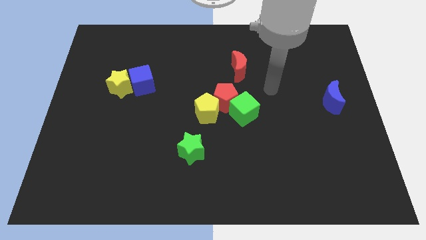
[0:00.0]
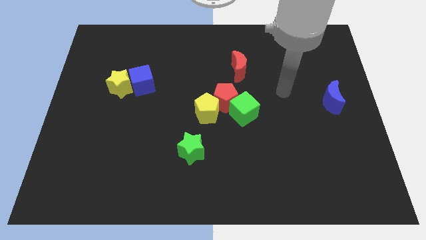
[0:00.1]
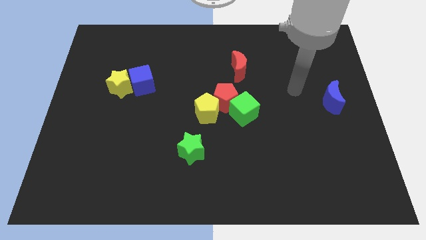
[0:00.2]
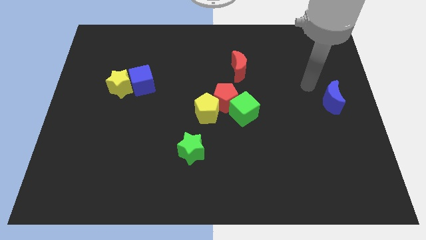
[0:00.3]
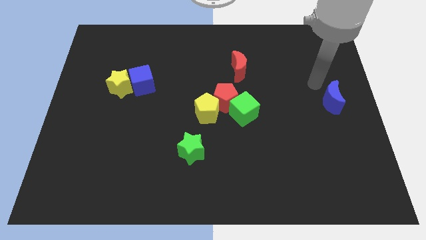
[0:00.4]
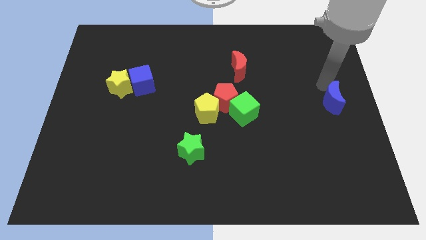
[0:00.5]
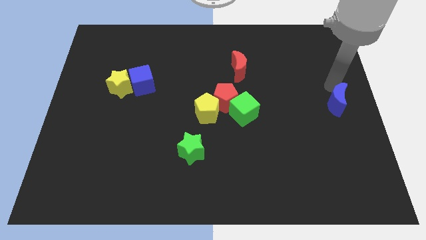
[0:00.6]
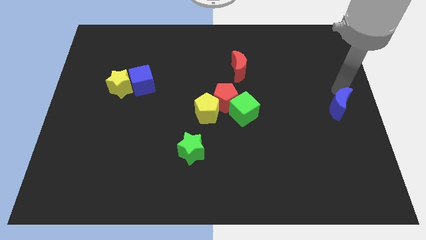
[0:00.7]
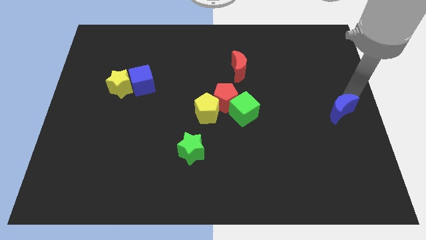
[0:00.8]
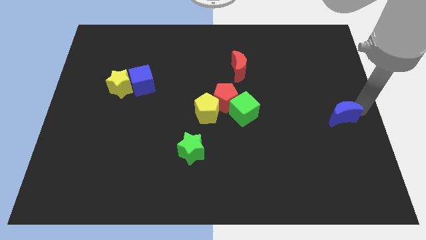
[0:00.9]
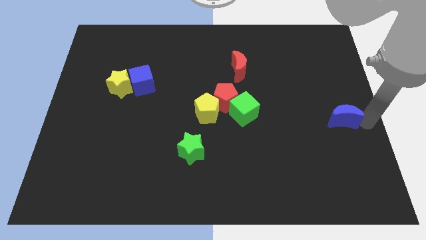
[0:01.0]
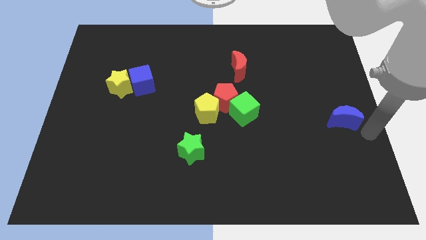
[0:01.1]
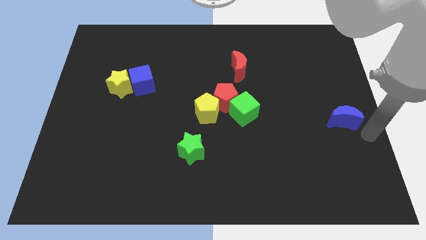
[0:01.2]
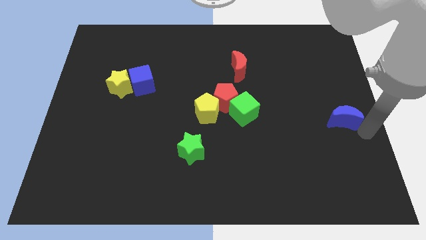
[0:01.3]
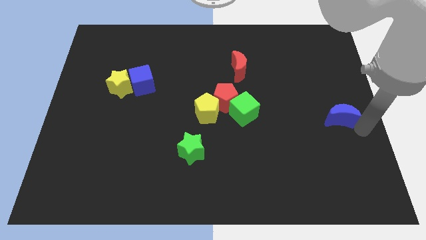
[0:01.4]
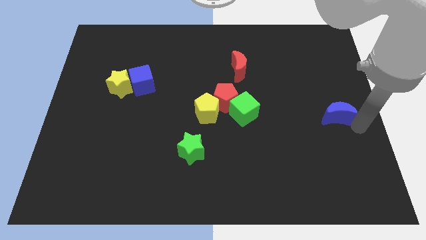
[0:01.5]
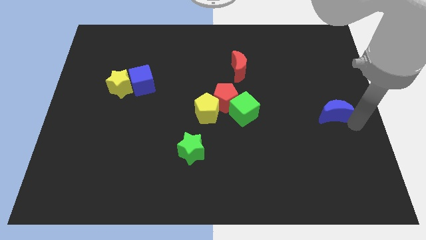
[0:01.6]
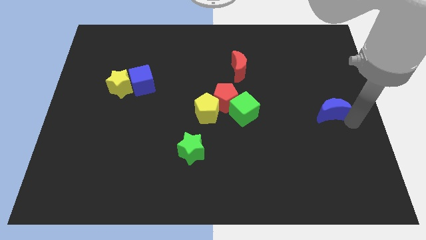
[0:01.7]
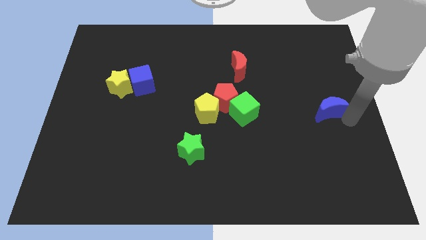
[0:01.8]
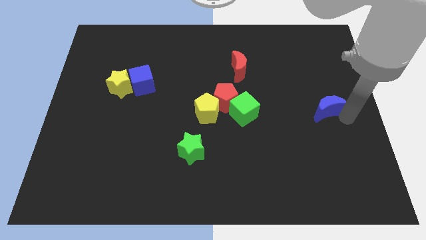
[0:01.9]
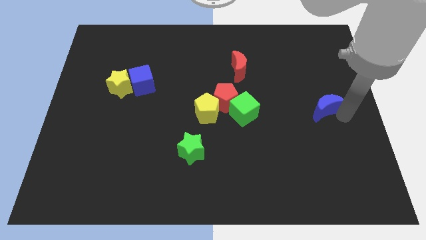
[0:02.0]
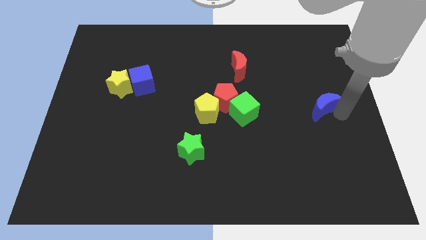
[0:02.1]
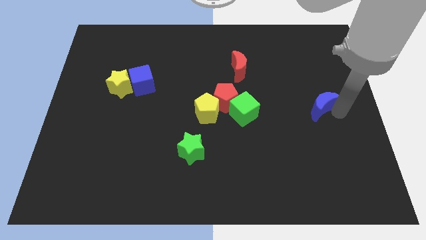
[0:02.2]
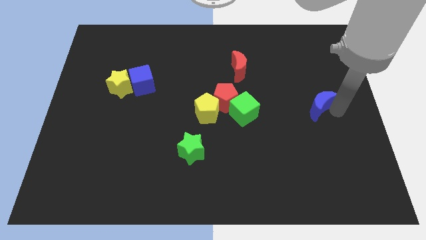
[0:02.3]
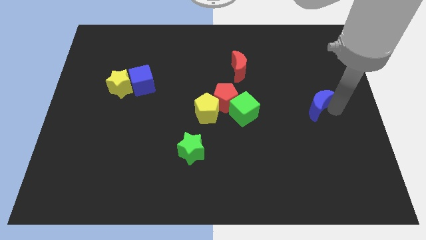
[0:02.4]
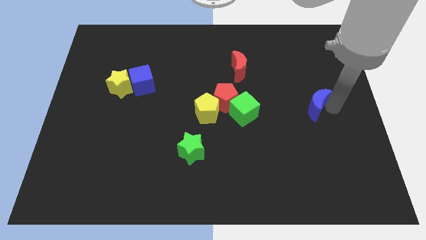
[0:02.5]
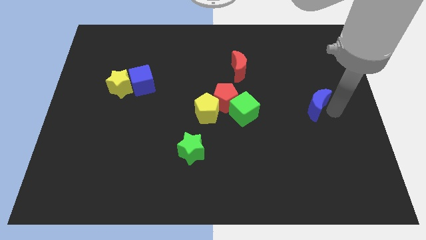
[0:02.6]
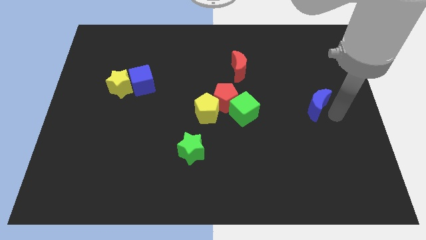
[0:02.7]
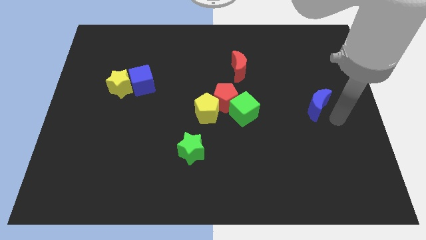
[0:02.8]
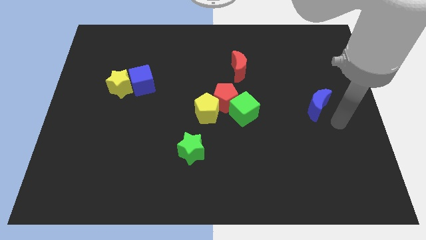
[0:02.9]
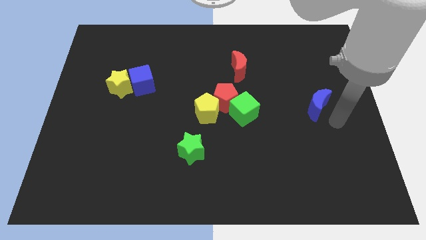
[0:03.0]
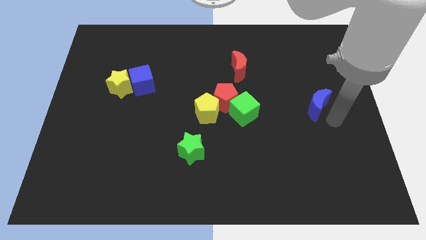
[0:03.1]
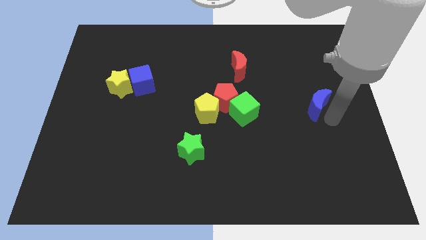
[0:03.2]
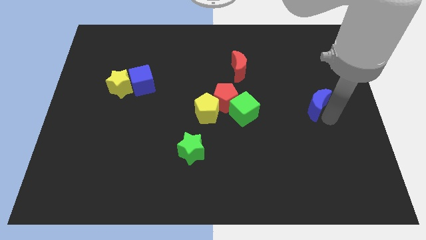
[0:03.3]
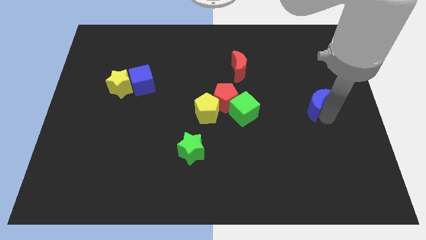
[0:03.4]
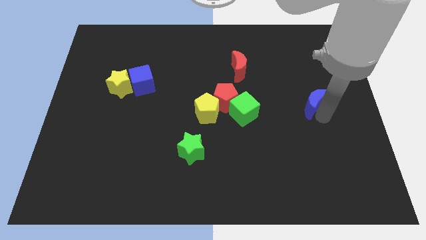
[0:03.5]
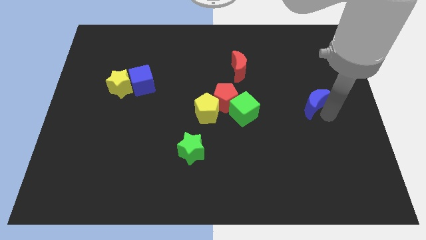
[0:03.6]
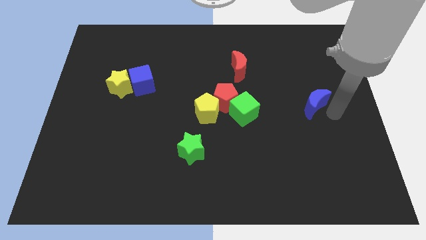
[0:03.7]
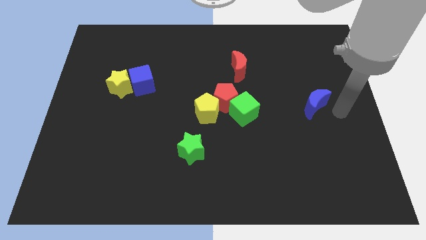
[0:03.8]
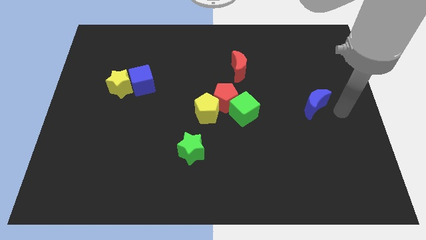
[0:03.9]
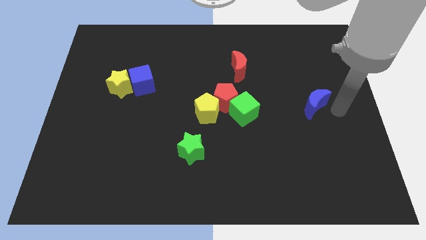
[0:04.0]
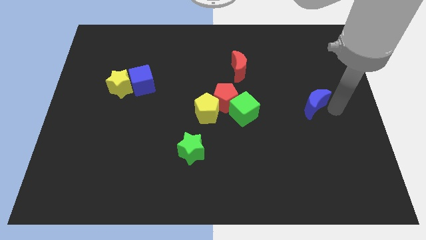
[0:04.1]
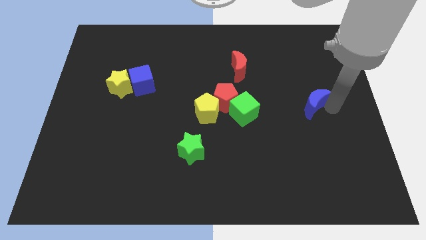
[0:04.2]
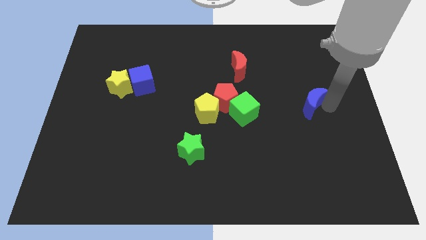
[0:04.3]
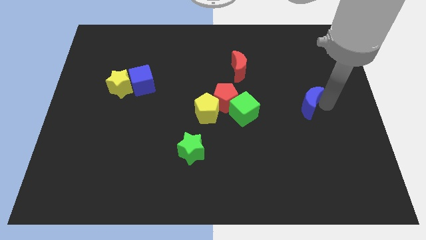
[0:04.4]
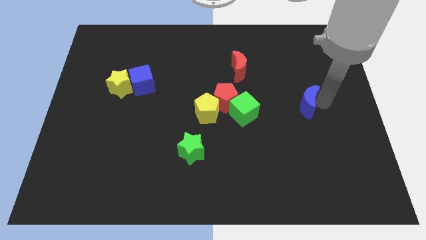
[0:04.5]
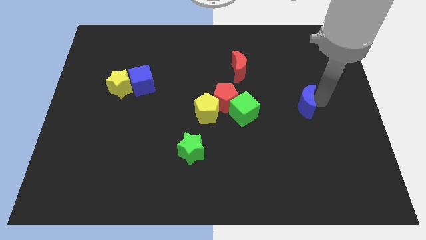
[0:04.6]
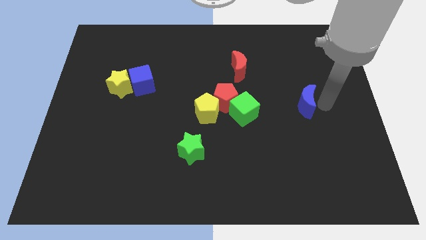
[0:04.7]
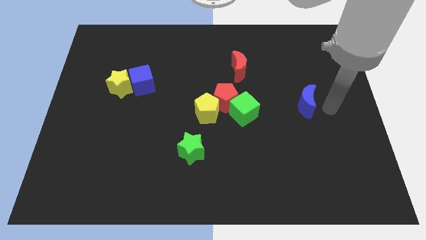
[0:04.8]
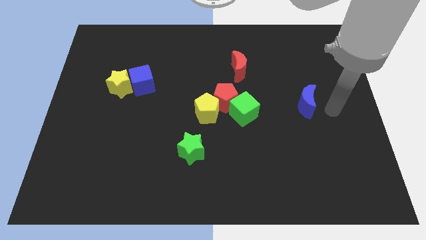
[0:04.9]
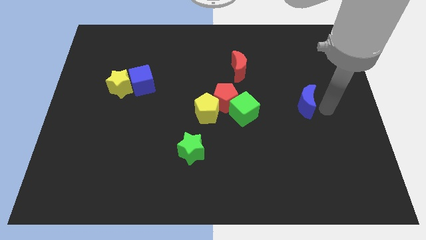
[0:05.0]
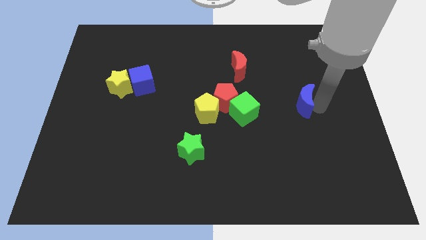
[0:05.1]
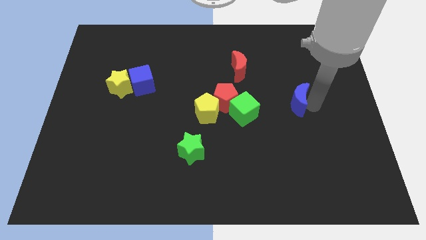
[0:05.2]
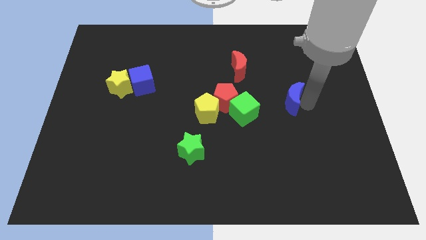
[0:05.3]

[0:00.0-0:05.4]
push the blue moon to the right of the red pentagon

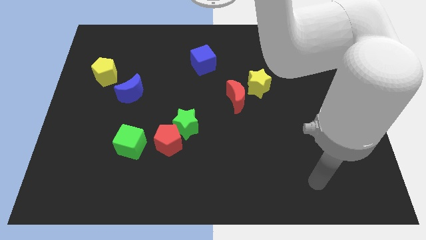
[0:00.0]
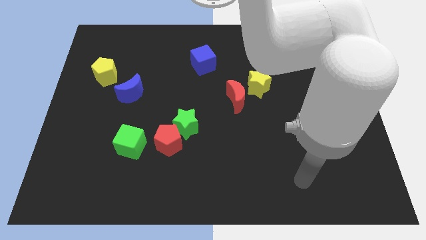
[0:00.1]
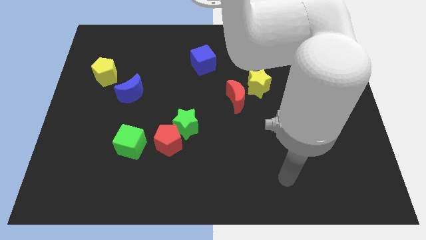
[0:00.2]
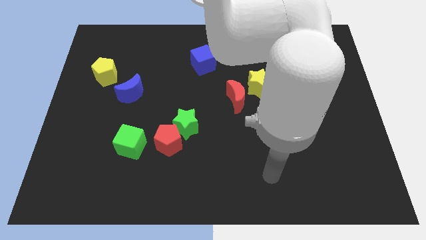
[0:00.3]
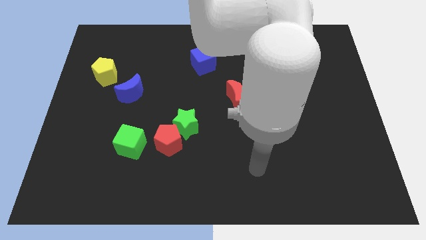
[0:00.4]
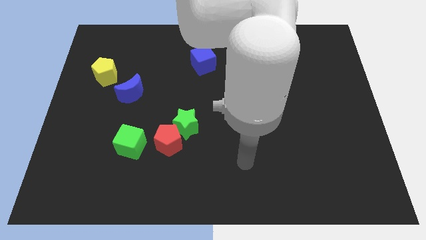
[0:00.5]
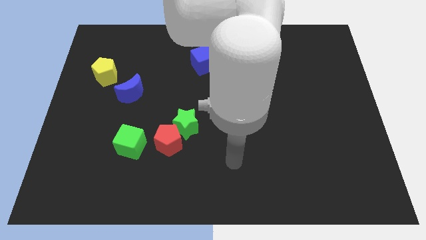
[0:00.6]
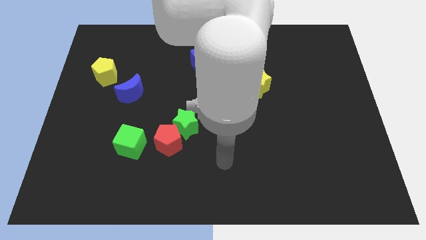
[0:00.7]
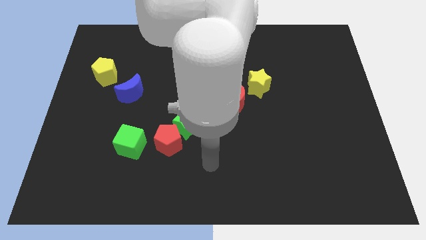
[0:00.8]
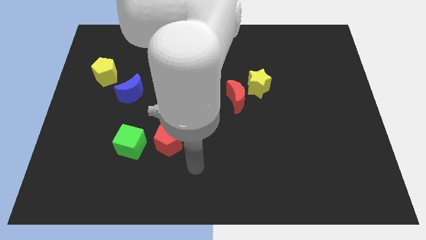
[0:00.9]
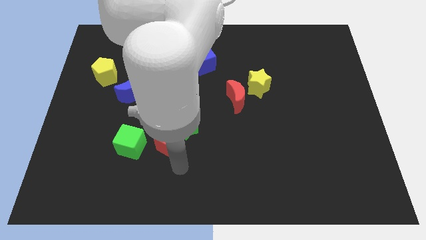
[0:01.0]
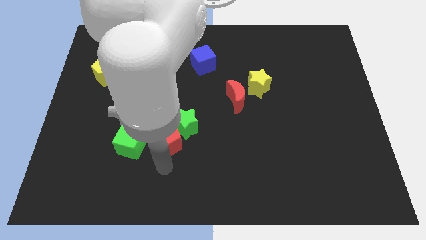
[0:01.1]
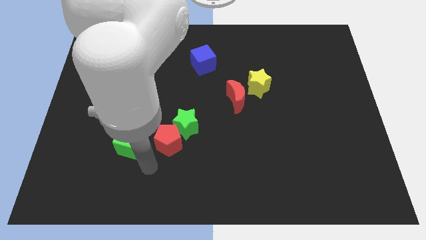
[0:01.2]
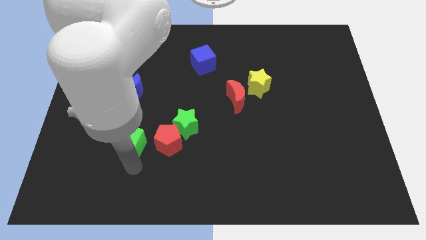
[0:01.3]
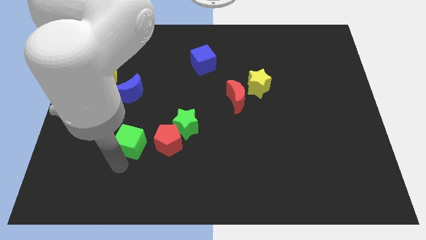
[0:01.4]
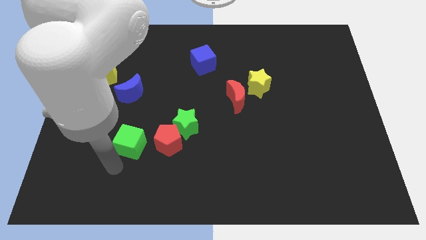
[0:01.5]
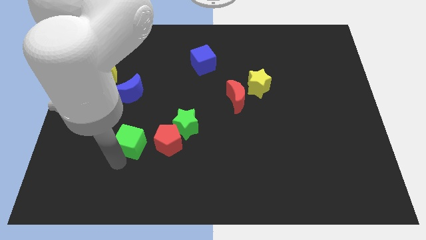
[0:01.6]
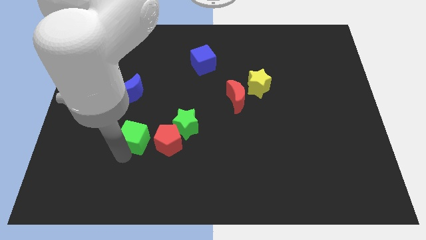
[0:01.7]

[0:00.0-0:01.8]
put the green cube to the top left of the red pentagon
